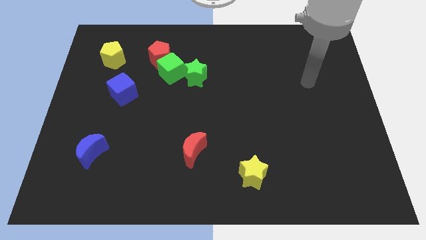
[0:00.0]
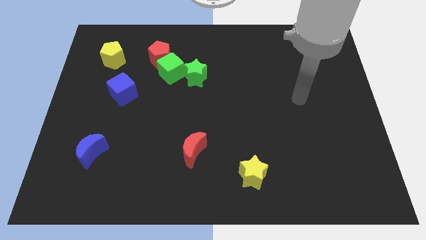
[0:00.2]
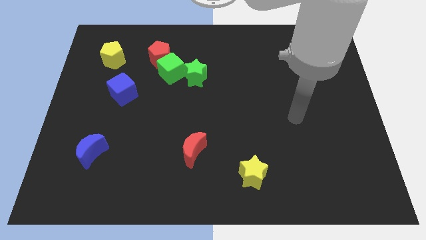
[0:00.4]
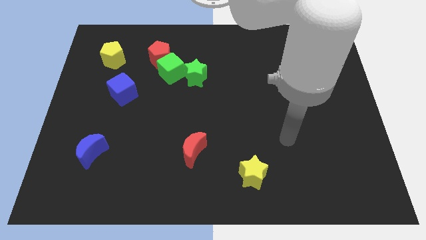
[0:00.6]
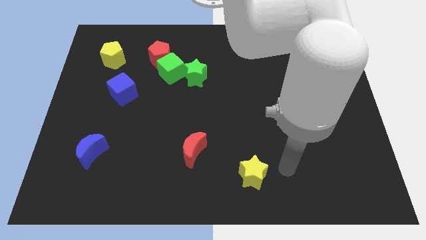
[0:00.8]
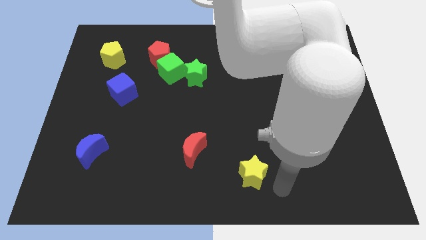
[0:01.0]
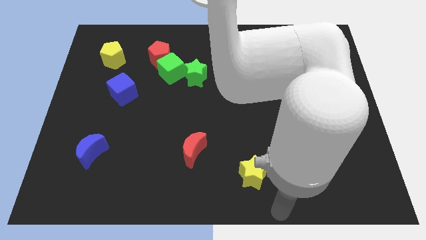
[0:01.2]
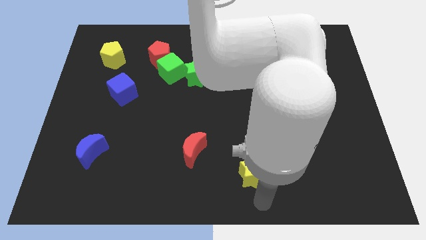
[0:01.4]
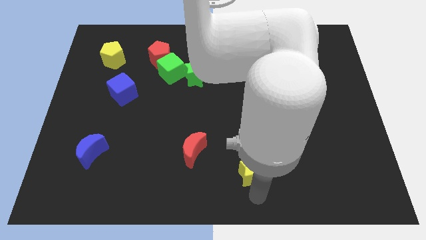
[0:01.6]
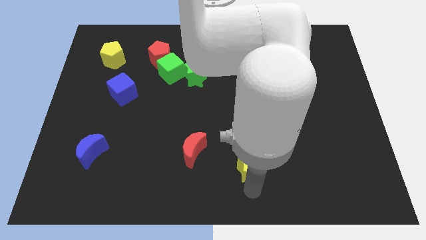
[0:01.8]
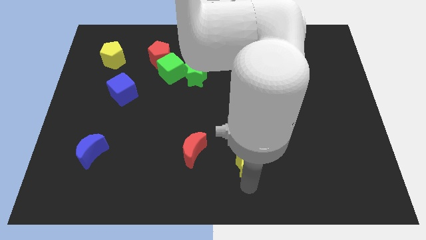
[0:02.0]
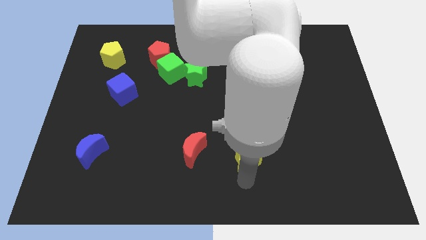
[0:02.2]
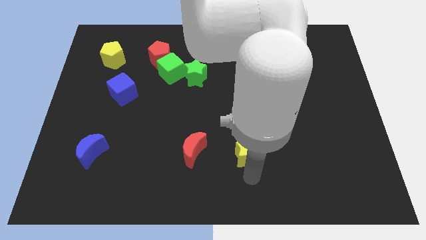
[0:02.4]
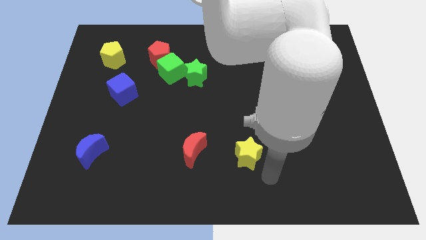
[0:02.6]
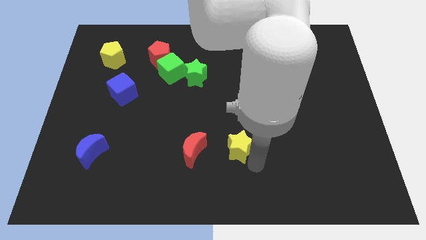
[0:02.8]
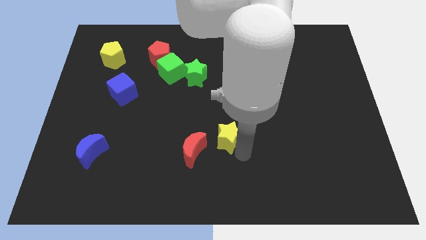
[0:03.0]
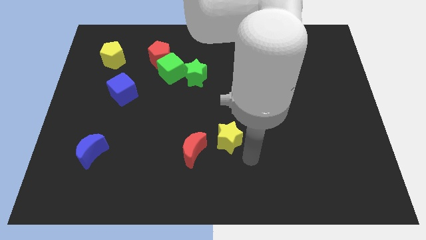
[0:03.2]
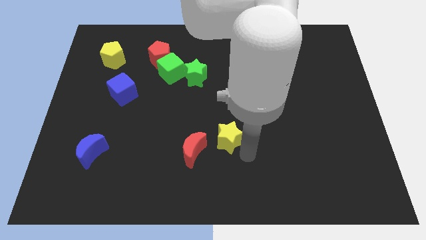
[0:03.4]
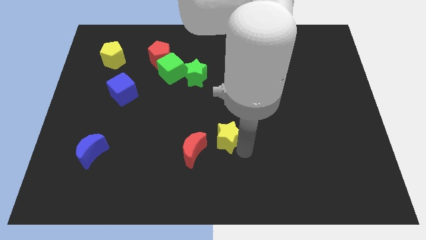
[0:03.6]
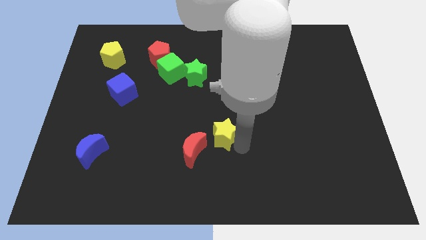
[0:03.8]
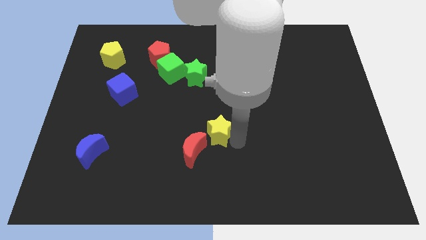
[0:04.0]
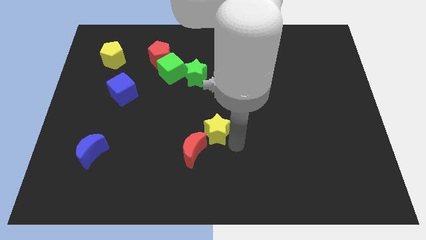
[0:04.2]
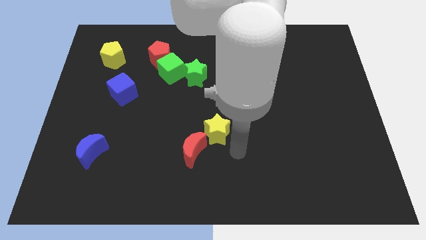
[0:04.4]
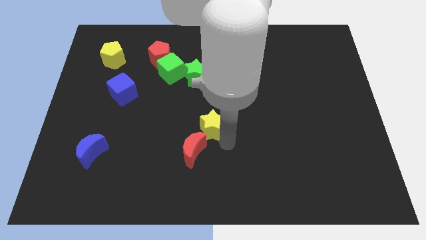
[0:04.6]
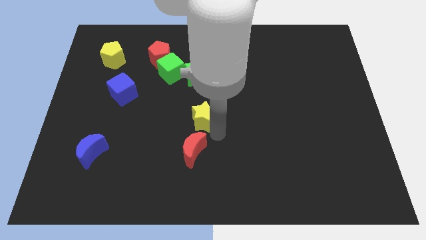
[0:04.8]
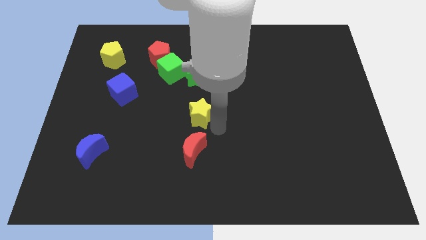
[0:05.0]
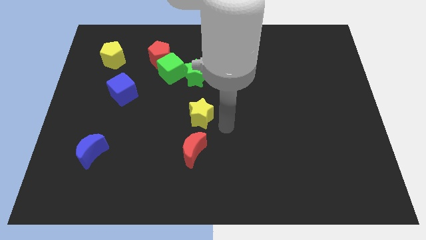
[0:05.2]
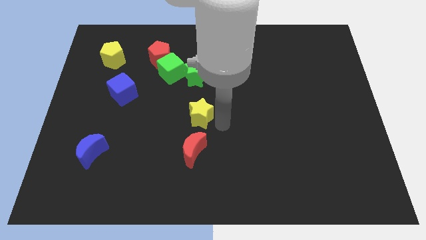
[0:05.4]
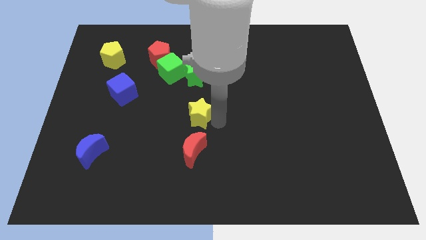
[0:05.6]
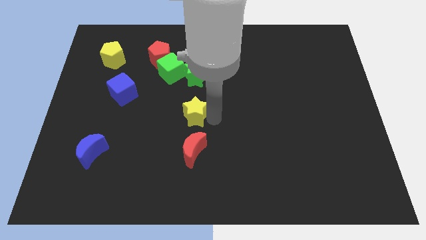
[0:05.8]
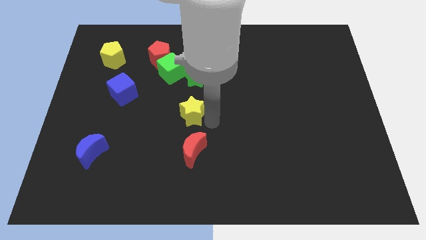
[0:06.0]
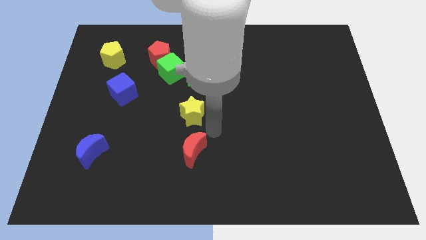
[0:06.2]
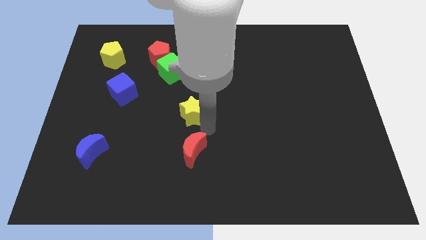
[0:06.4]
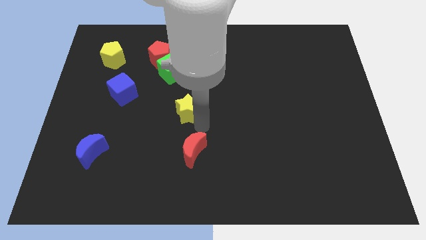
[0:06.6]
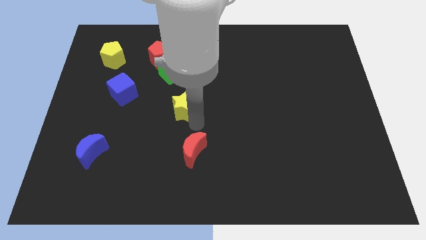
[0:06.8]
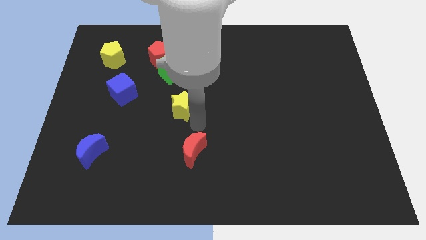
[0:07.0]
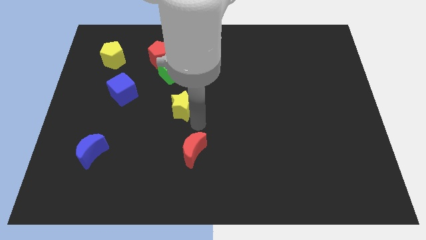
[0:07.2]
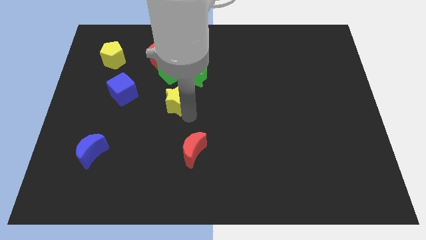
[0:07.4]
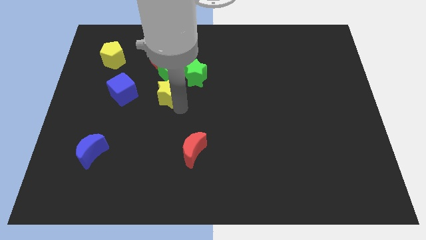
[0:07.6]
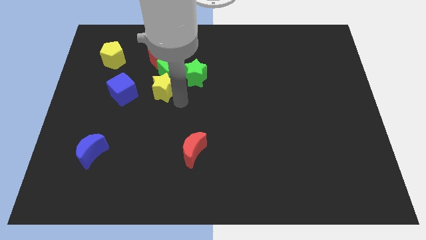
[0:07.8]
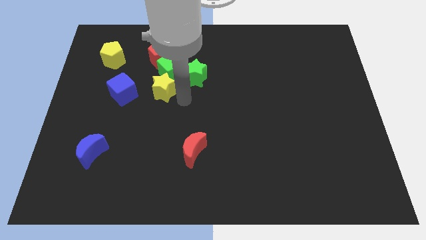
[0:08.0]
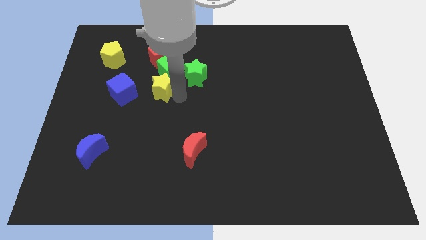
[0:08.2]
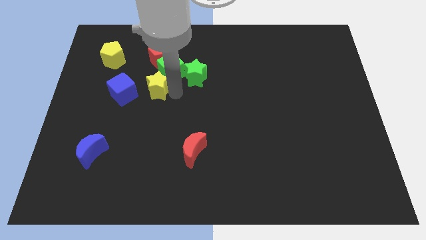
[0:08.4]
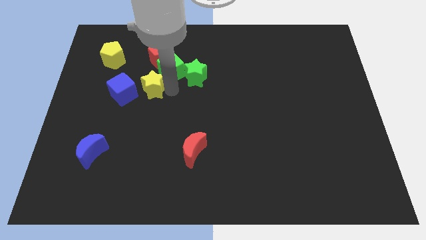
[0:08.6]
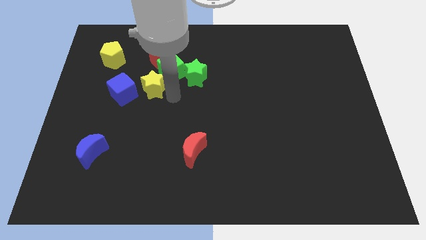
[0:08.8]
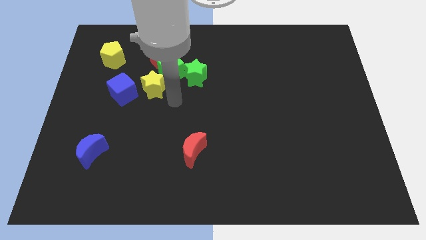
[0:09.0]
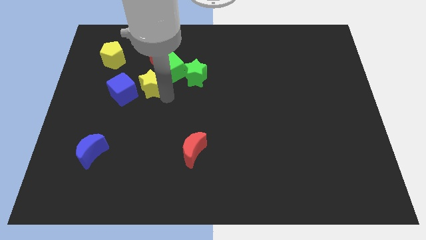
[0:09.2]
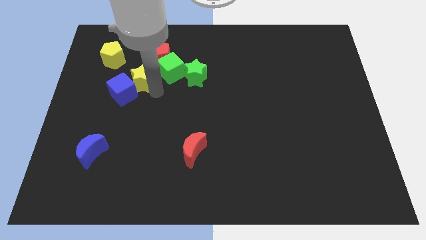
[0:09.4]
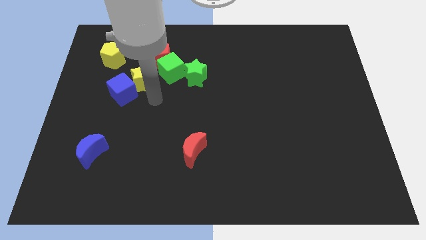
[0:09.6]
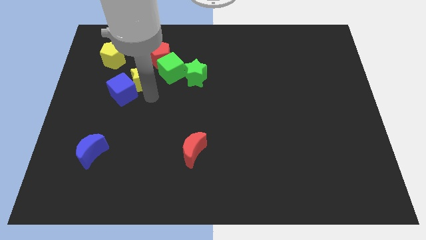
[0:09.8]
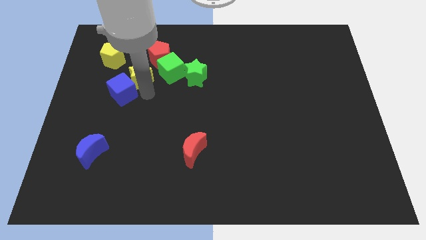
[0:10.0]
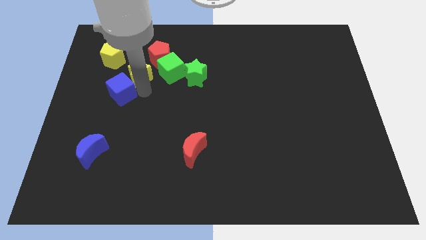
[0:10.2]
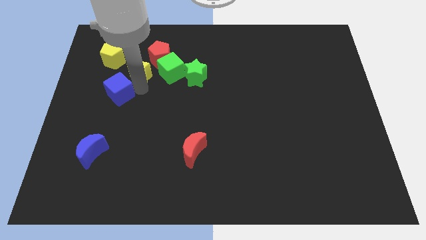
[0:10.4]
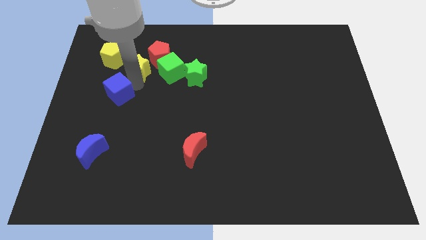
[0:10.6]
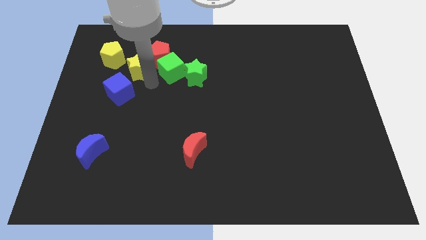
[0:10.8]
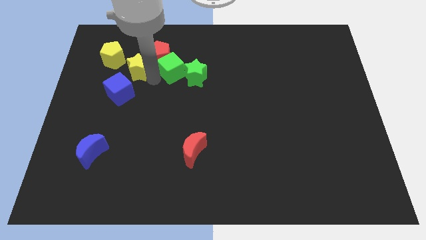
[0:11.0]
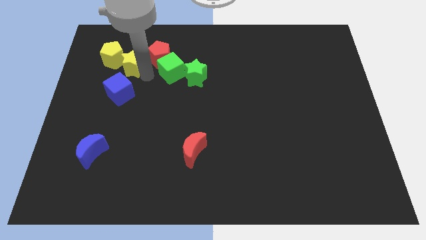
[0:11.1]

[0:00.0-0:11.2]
put the yellow star towards the yellow pentagon

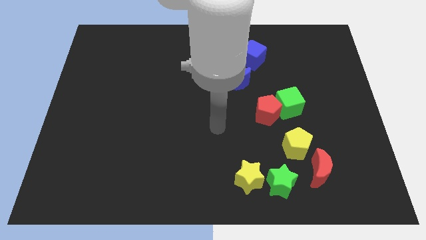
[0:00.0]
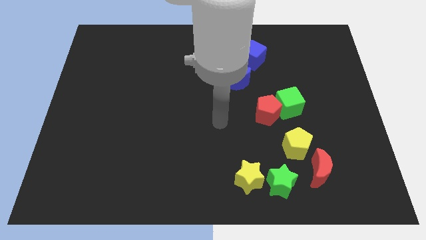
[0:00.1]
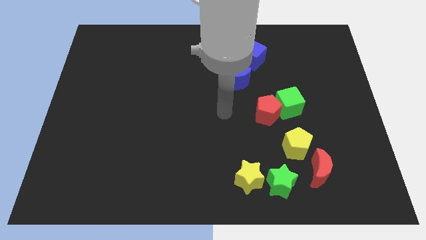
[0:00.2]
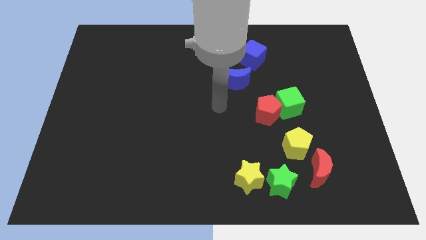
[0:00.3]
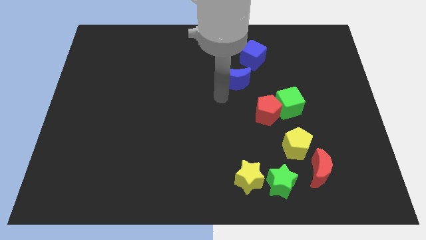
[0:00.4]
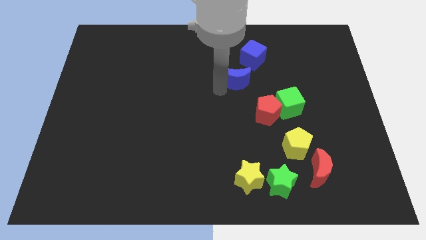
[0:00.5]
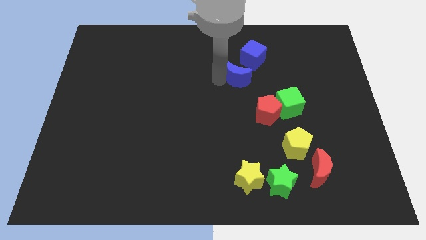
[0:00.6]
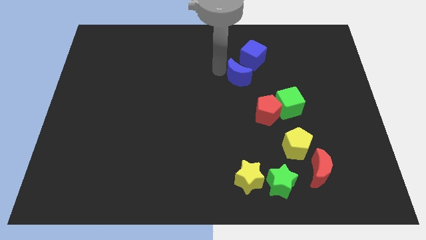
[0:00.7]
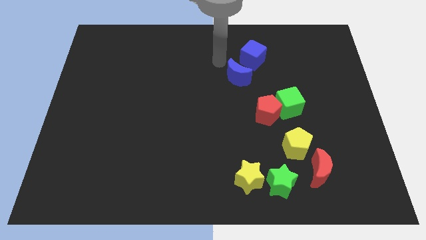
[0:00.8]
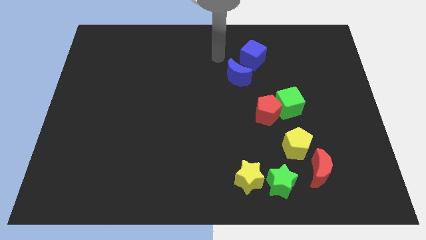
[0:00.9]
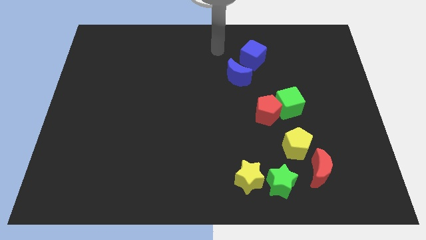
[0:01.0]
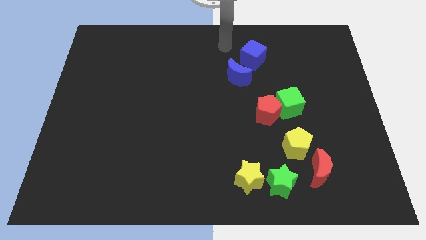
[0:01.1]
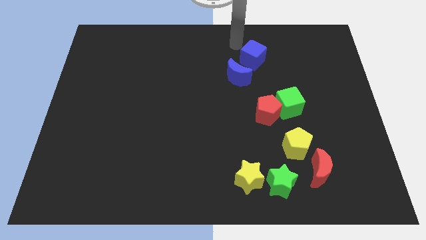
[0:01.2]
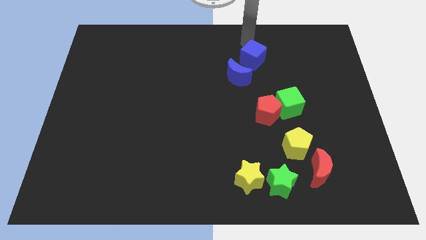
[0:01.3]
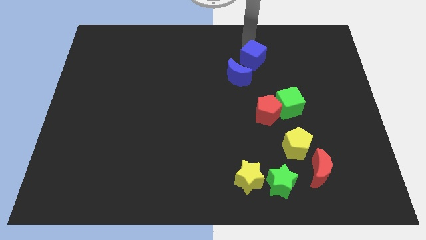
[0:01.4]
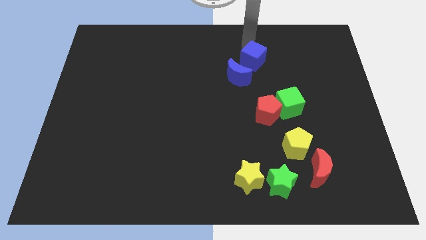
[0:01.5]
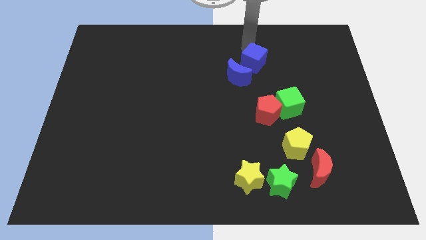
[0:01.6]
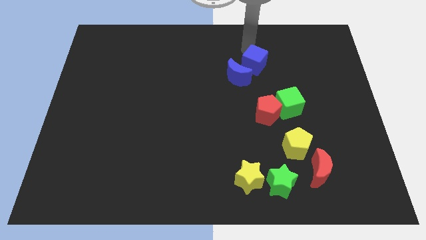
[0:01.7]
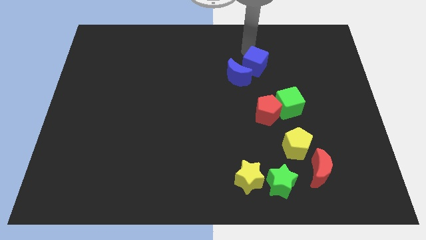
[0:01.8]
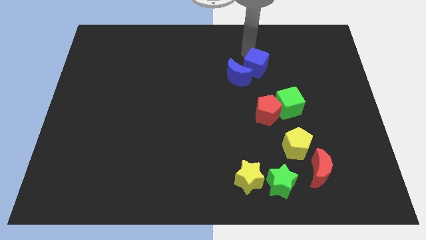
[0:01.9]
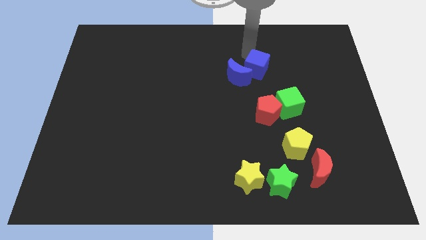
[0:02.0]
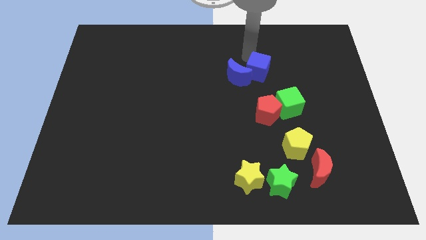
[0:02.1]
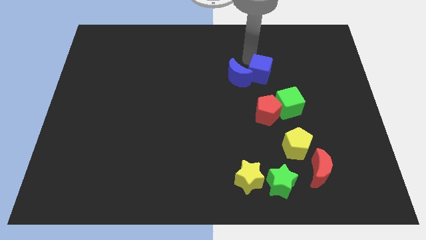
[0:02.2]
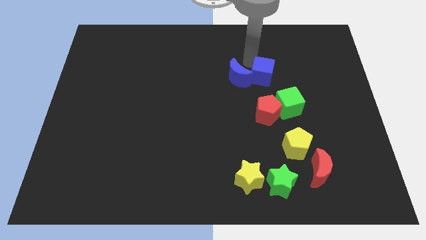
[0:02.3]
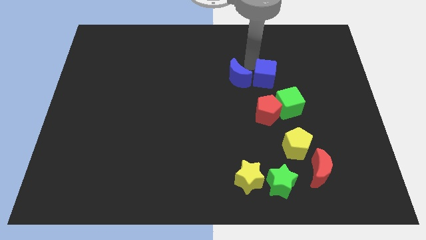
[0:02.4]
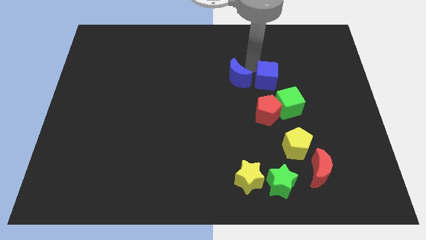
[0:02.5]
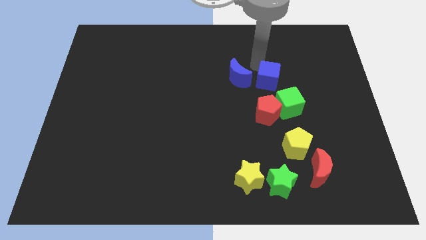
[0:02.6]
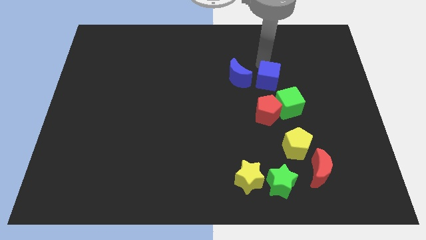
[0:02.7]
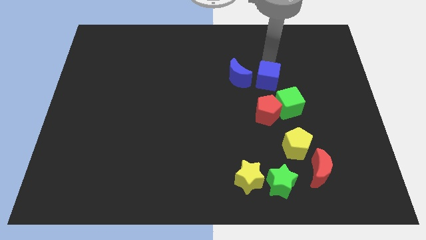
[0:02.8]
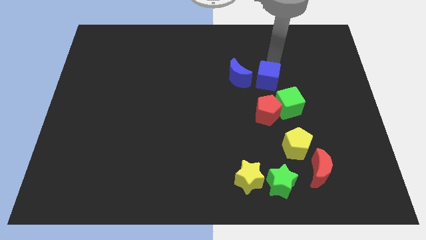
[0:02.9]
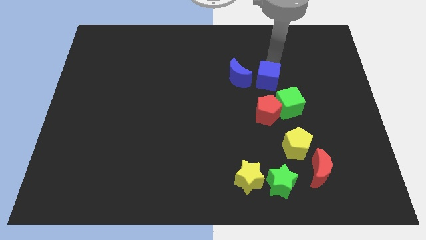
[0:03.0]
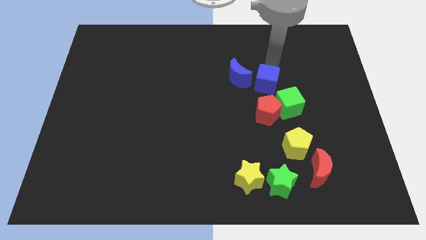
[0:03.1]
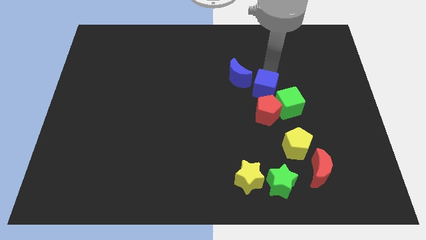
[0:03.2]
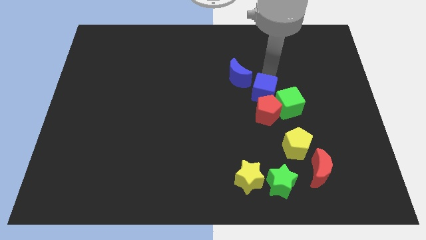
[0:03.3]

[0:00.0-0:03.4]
put the blue cube towards the red pentagon
